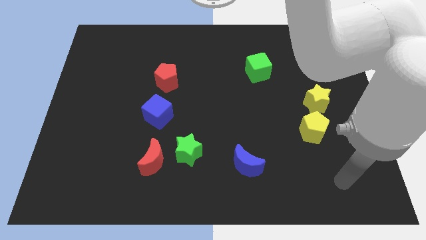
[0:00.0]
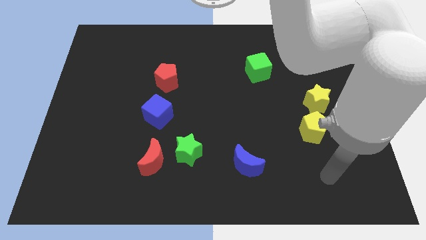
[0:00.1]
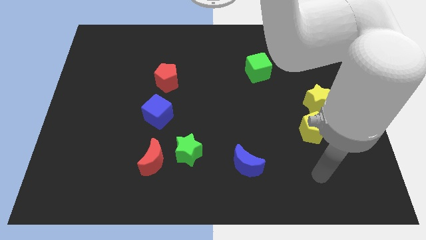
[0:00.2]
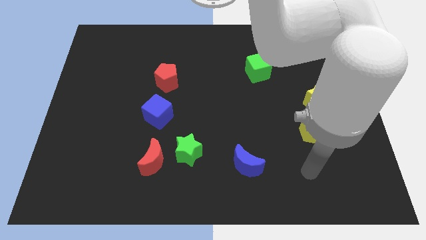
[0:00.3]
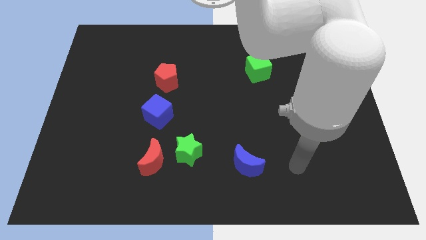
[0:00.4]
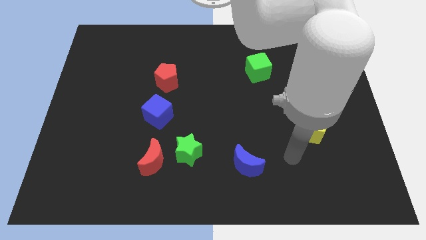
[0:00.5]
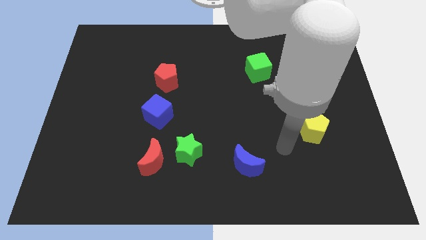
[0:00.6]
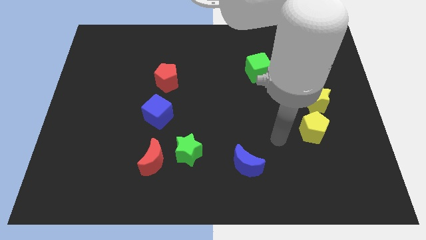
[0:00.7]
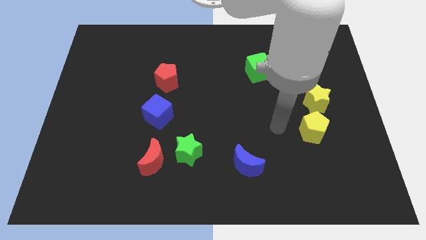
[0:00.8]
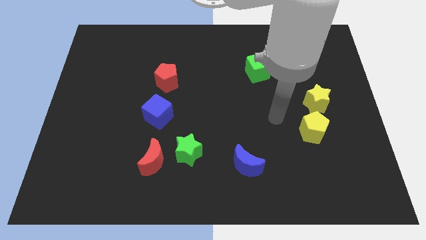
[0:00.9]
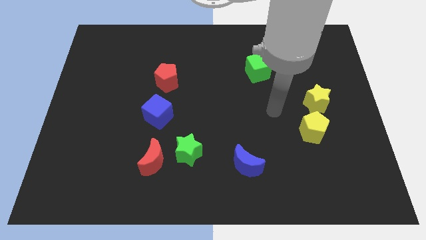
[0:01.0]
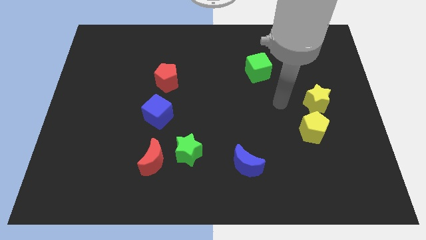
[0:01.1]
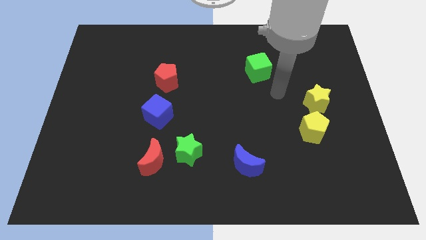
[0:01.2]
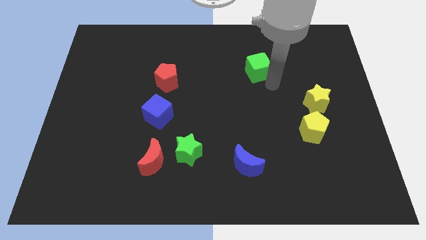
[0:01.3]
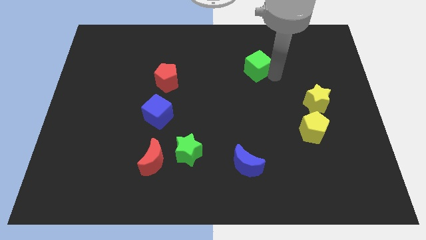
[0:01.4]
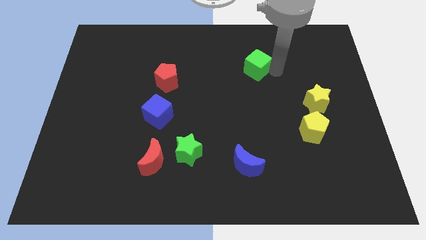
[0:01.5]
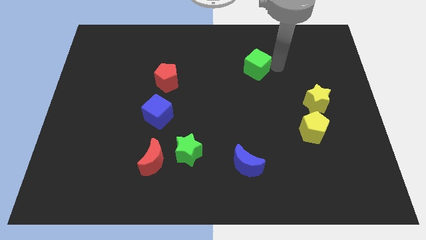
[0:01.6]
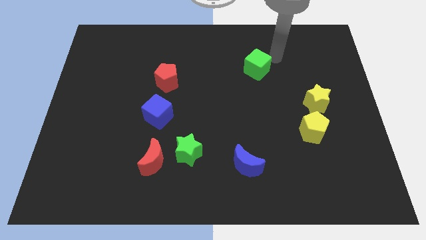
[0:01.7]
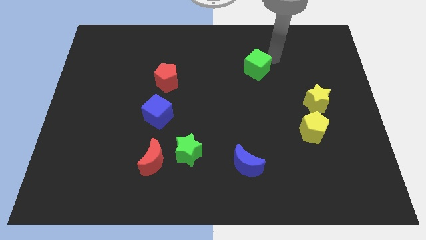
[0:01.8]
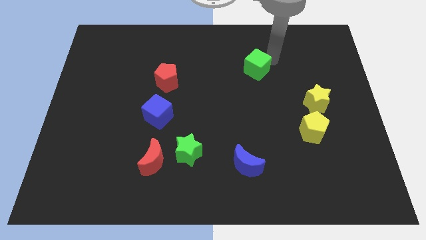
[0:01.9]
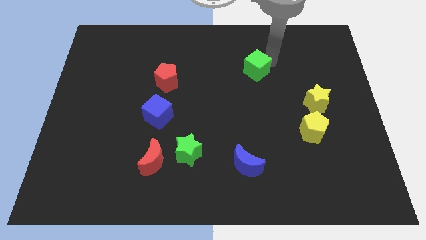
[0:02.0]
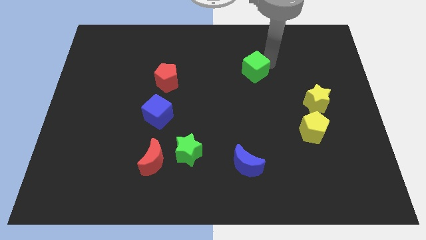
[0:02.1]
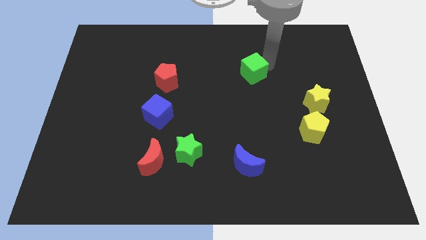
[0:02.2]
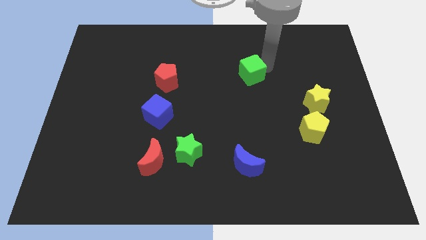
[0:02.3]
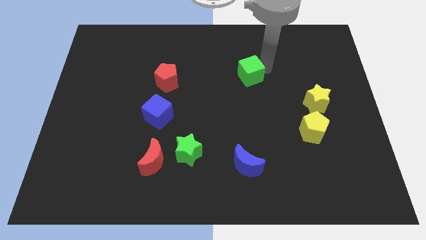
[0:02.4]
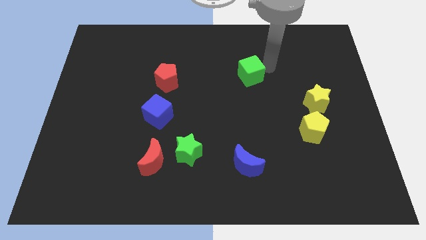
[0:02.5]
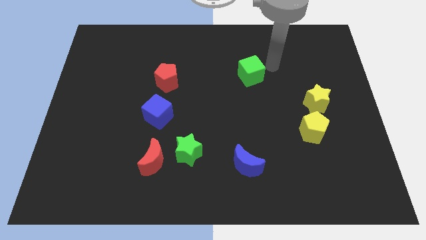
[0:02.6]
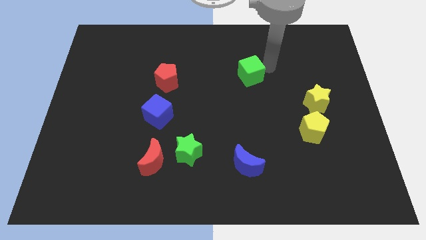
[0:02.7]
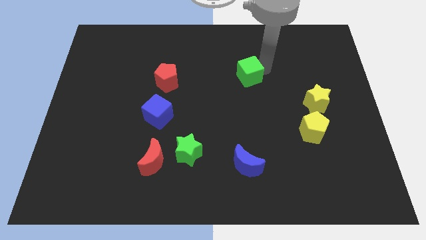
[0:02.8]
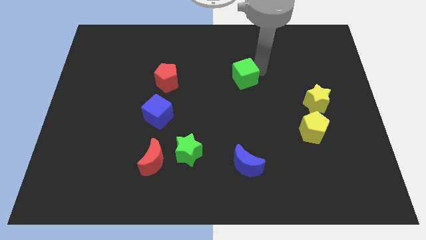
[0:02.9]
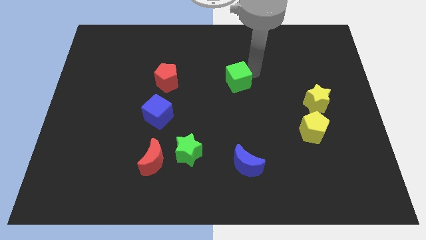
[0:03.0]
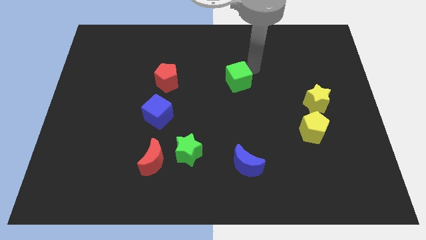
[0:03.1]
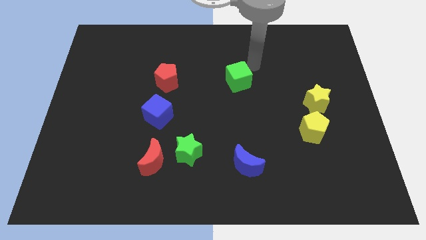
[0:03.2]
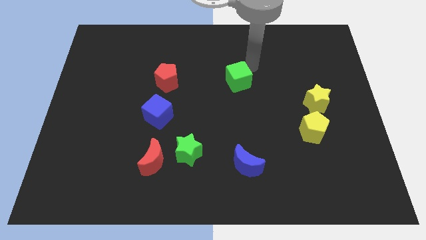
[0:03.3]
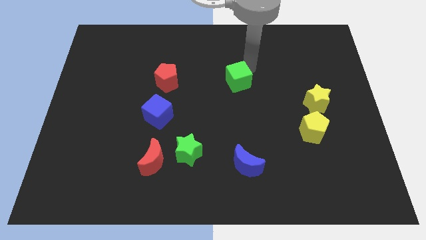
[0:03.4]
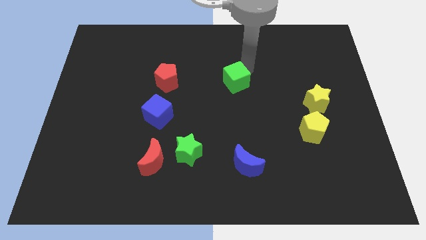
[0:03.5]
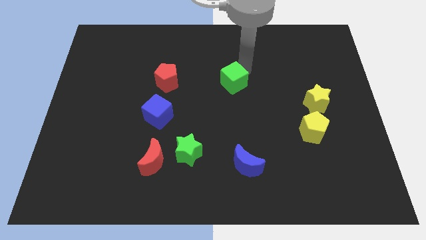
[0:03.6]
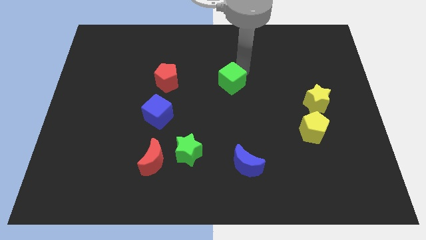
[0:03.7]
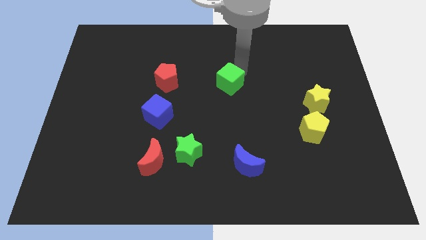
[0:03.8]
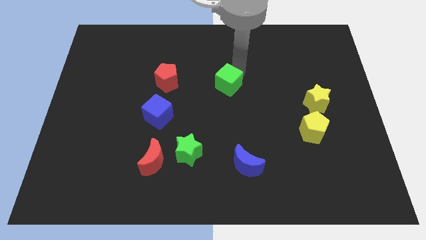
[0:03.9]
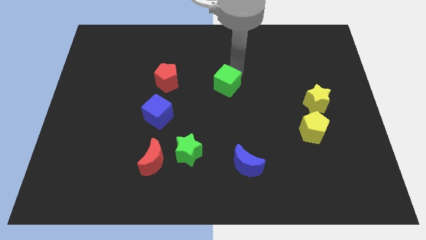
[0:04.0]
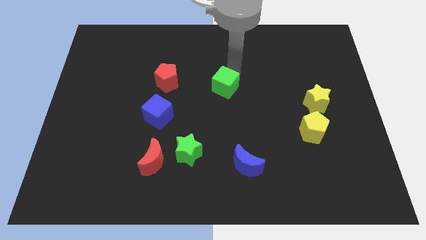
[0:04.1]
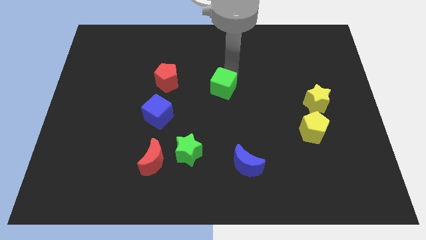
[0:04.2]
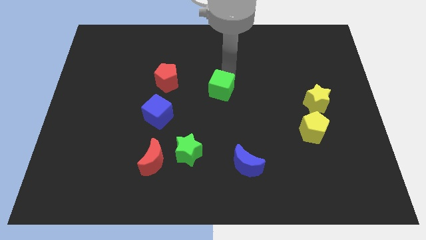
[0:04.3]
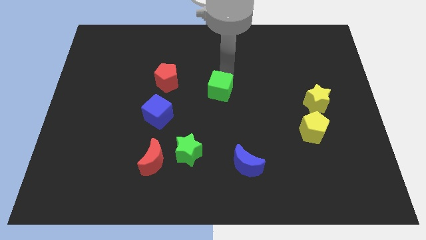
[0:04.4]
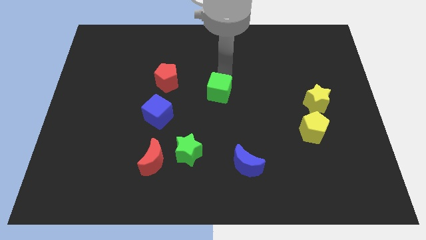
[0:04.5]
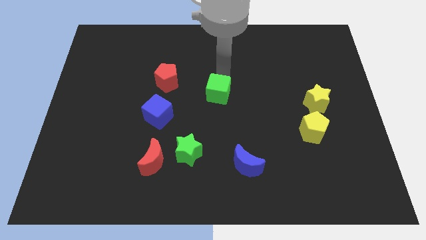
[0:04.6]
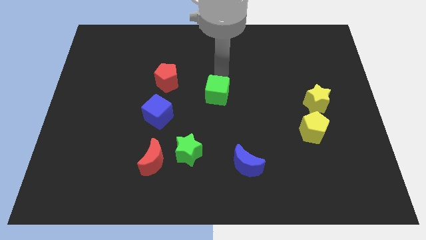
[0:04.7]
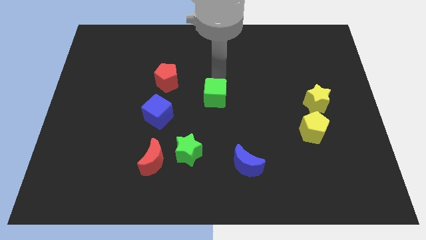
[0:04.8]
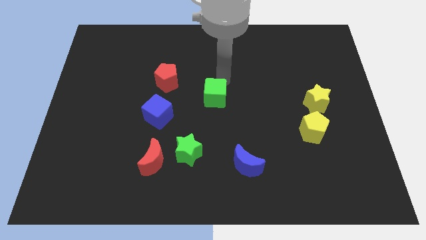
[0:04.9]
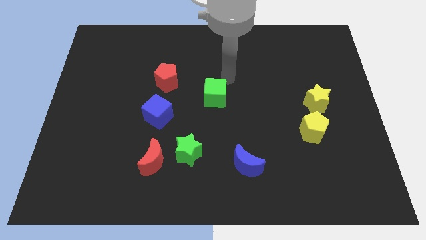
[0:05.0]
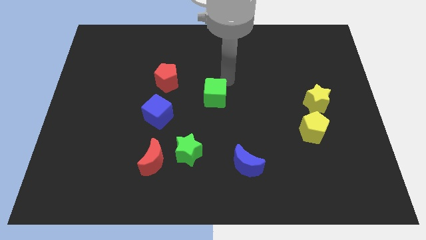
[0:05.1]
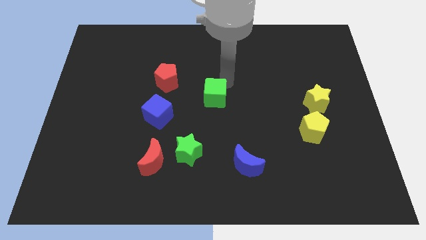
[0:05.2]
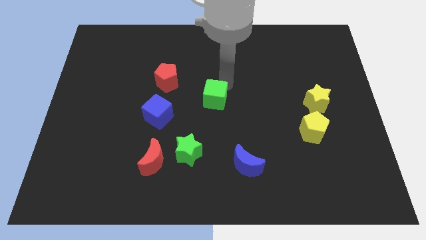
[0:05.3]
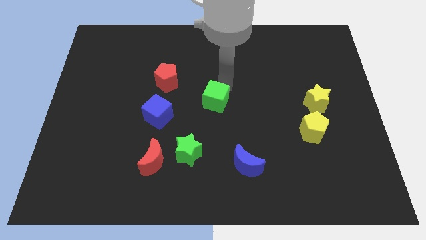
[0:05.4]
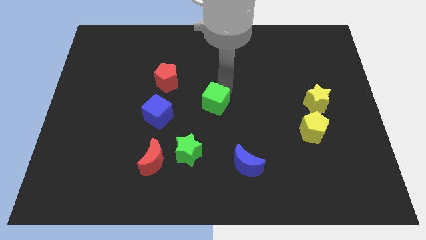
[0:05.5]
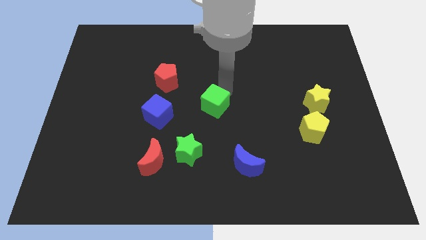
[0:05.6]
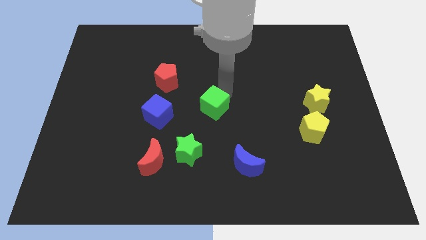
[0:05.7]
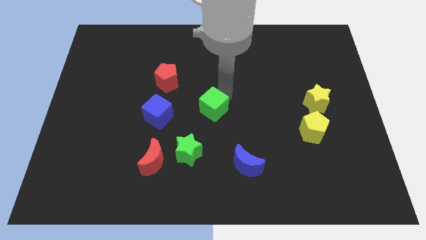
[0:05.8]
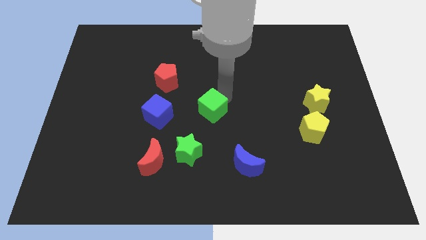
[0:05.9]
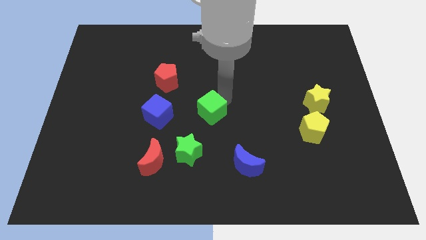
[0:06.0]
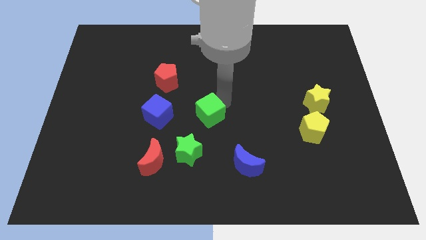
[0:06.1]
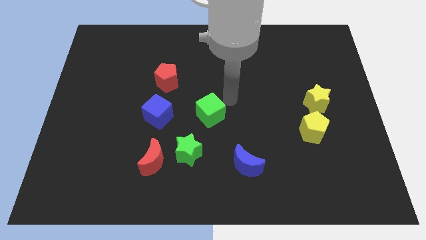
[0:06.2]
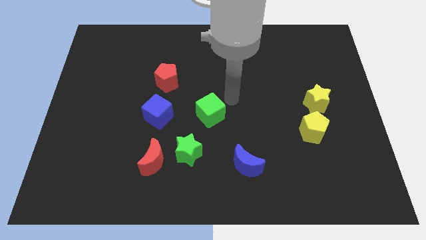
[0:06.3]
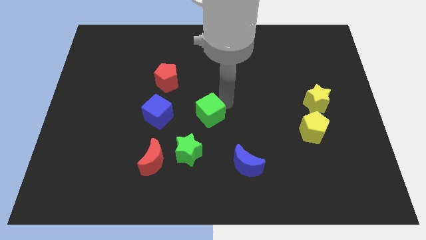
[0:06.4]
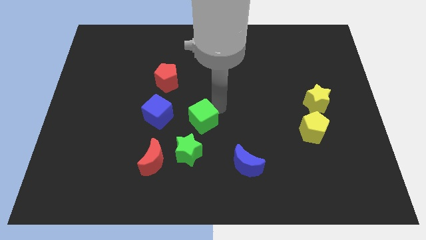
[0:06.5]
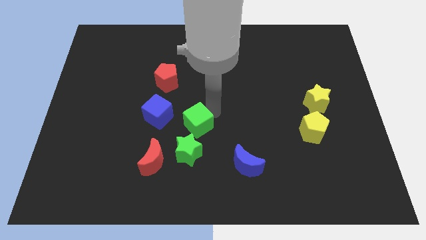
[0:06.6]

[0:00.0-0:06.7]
slide the green cube to the bottom right of the blue cube

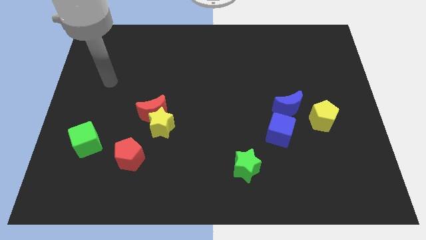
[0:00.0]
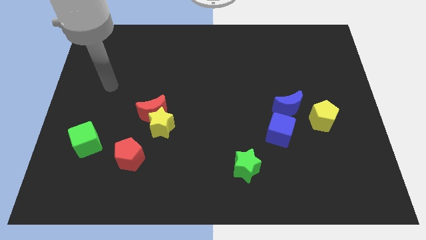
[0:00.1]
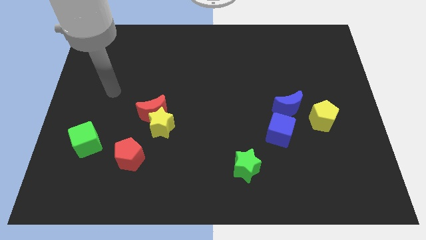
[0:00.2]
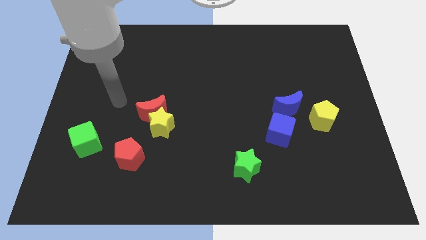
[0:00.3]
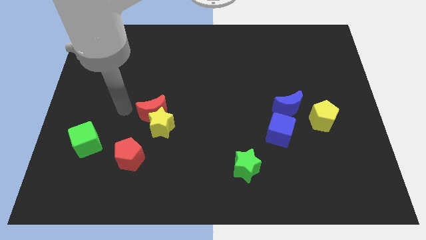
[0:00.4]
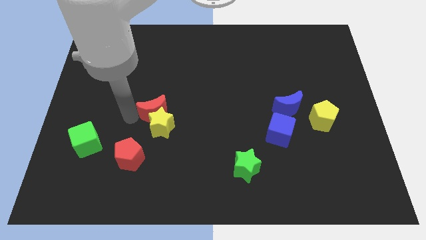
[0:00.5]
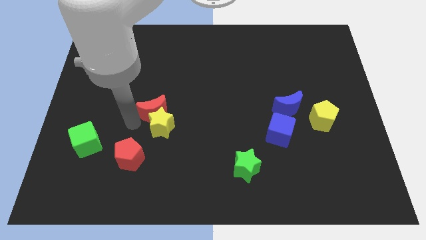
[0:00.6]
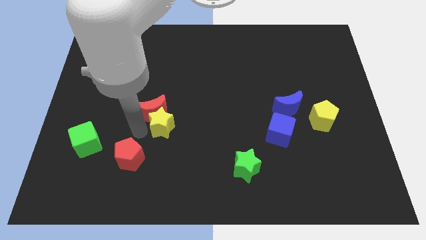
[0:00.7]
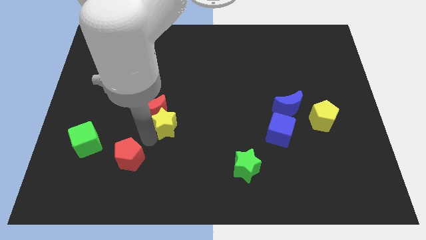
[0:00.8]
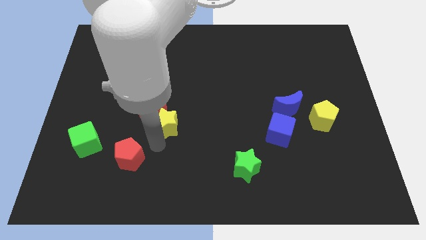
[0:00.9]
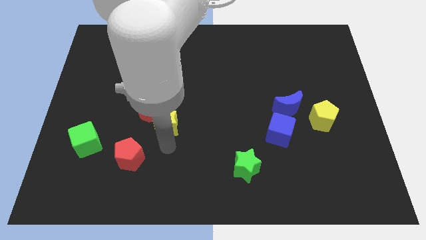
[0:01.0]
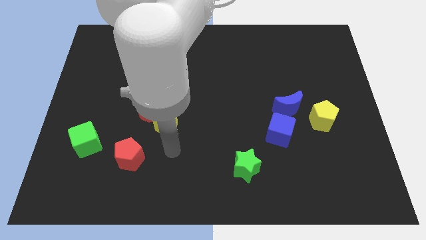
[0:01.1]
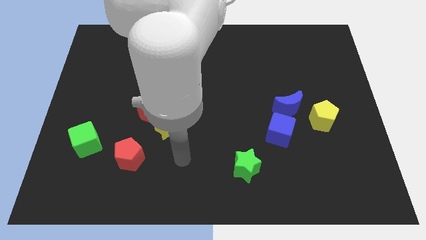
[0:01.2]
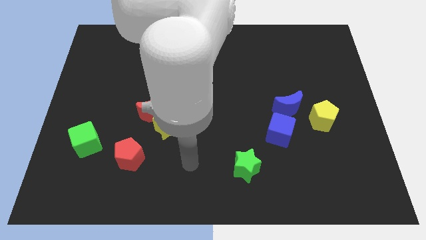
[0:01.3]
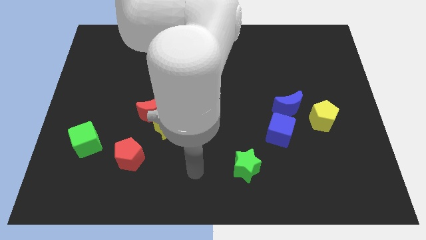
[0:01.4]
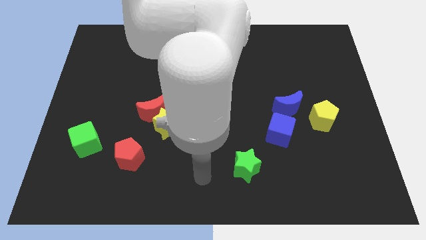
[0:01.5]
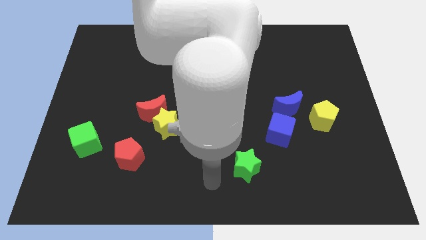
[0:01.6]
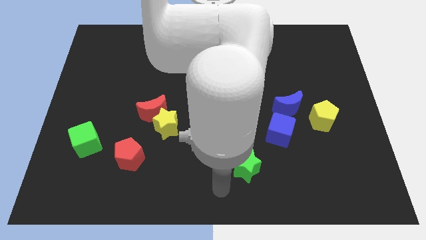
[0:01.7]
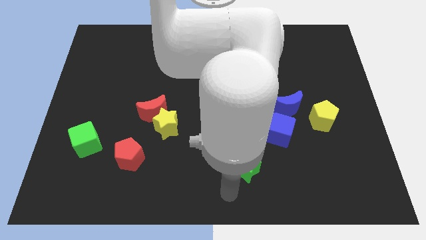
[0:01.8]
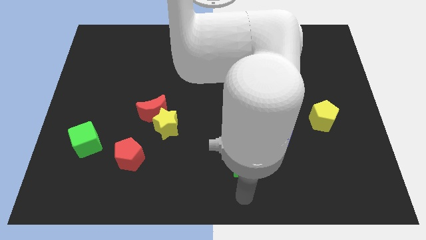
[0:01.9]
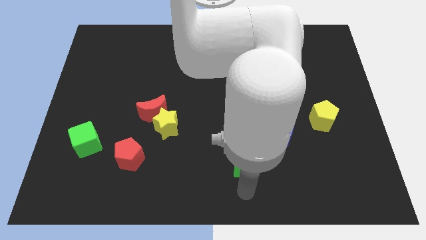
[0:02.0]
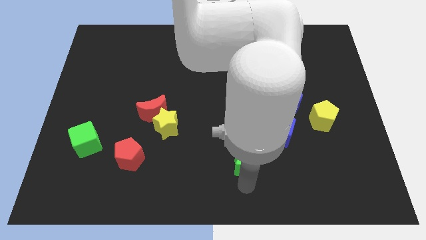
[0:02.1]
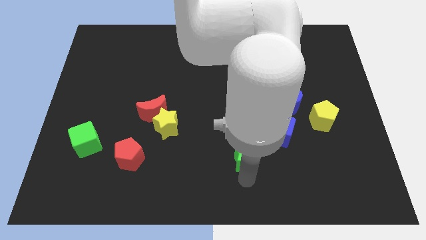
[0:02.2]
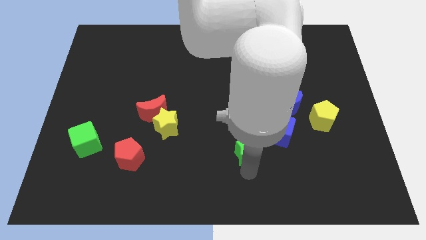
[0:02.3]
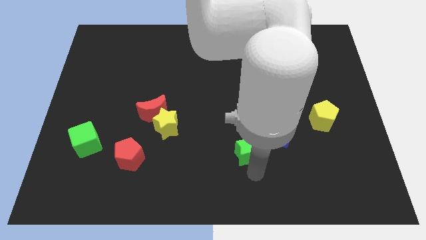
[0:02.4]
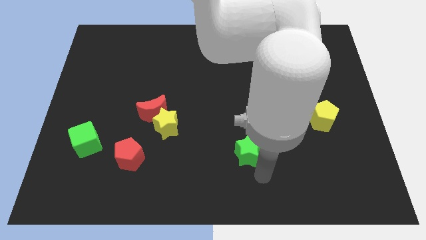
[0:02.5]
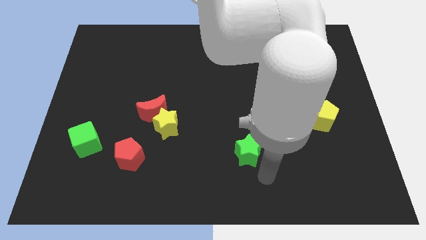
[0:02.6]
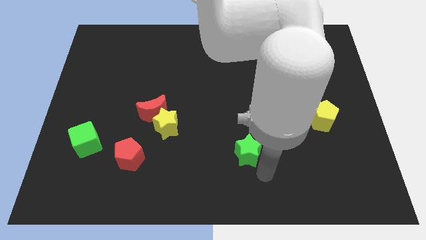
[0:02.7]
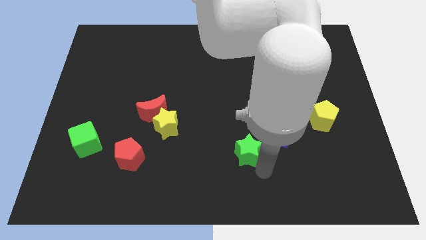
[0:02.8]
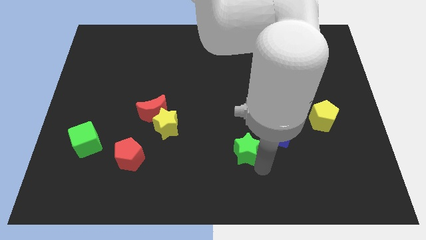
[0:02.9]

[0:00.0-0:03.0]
move the green star left of the blue cube
